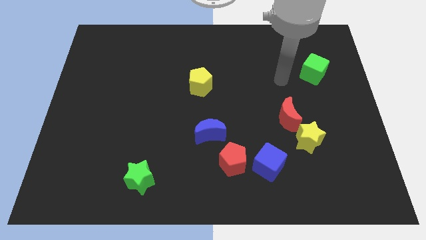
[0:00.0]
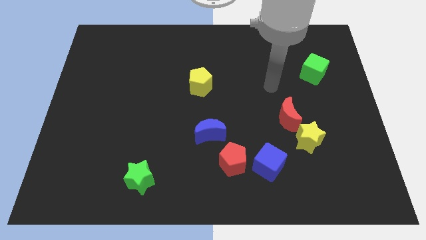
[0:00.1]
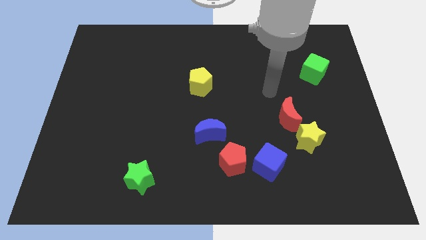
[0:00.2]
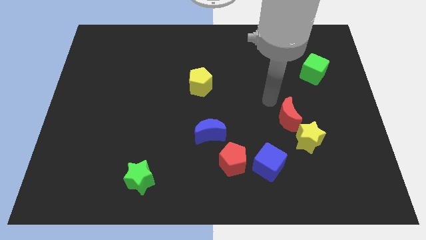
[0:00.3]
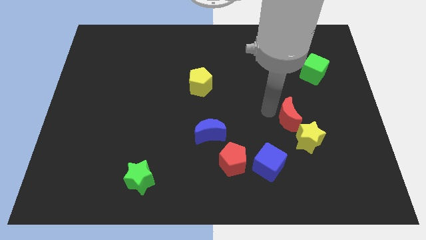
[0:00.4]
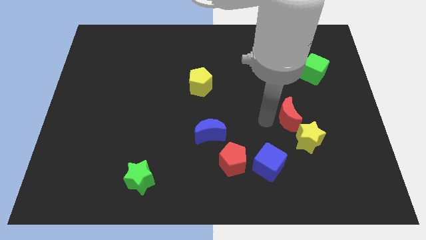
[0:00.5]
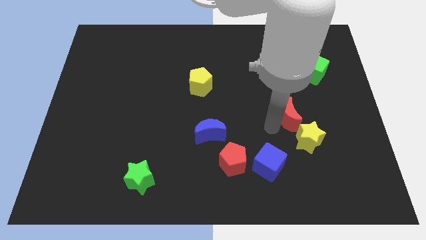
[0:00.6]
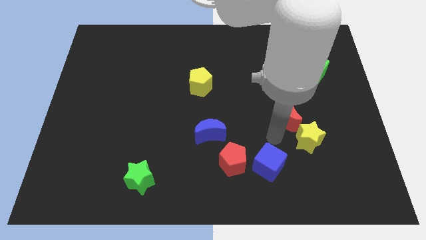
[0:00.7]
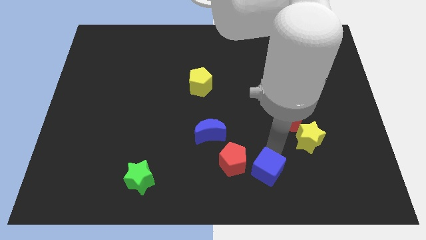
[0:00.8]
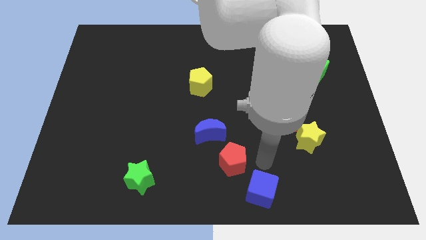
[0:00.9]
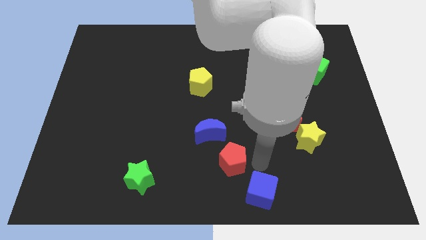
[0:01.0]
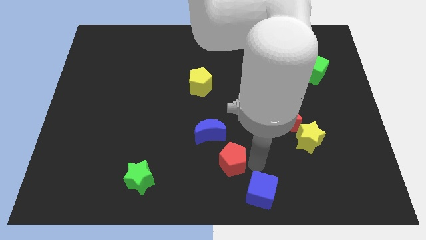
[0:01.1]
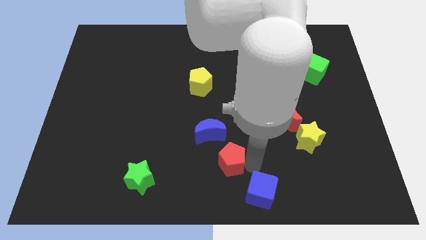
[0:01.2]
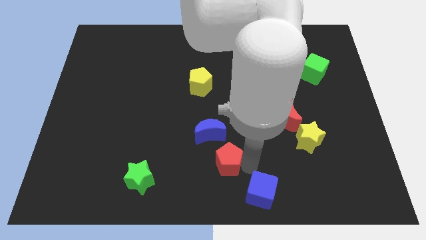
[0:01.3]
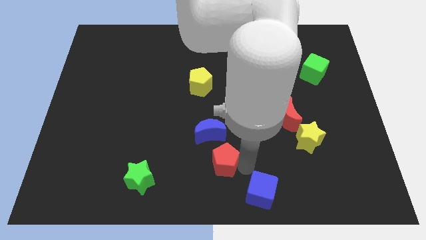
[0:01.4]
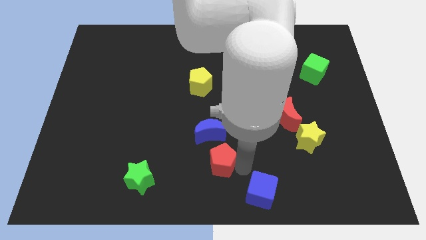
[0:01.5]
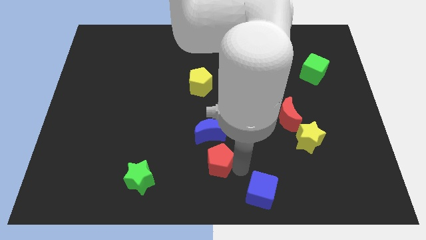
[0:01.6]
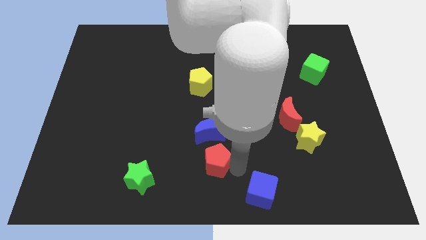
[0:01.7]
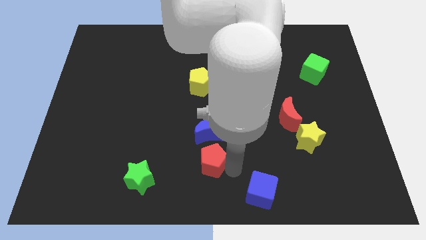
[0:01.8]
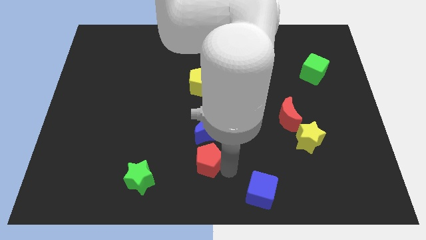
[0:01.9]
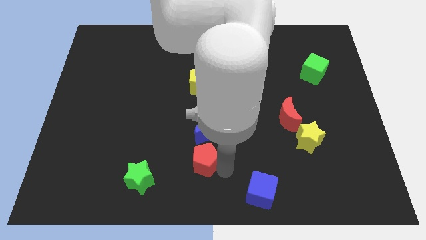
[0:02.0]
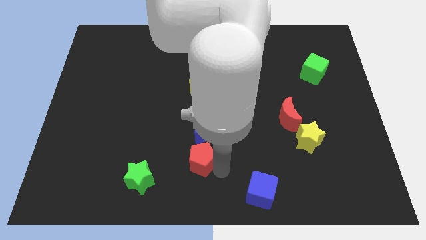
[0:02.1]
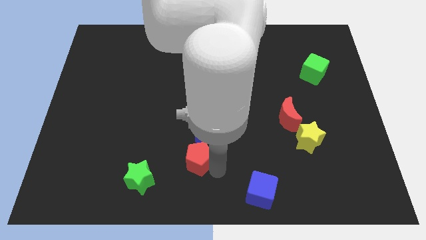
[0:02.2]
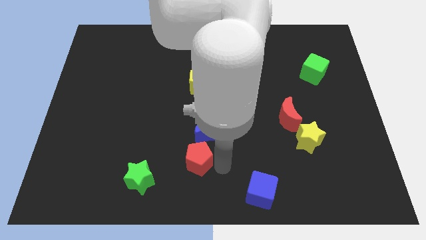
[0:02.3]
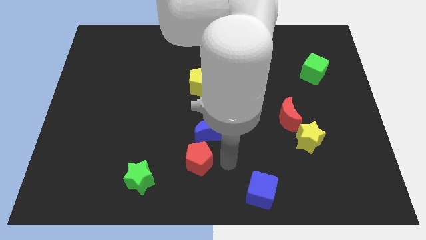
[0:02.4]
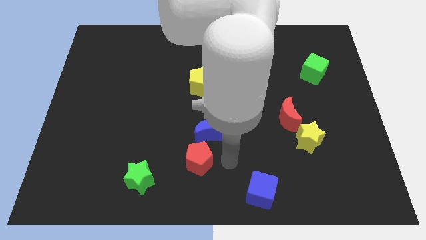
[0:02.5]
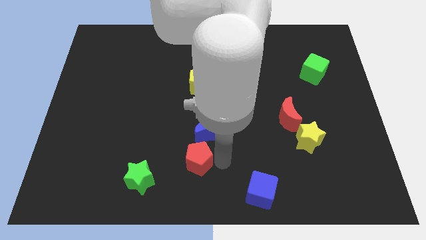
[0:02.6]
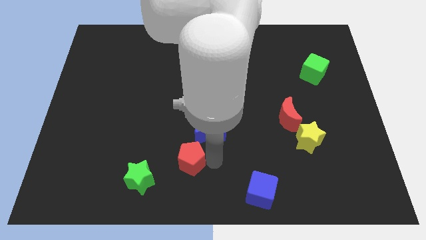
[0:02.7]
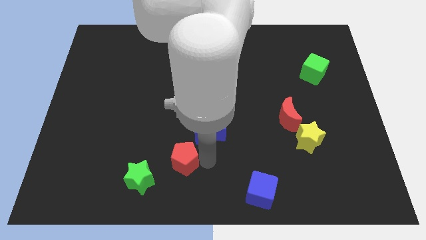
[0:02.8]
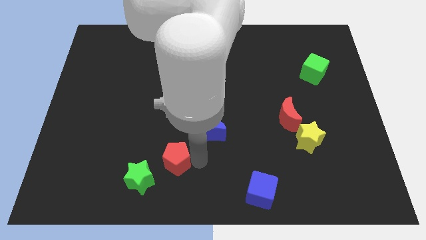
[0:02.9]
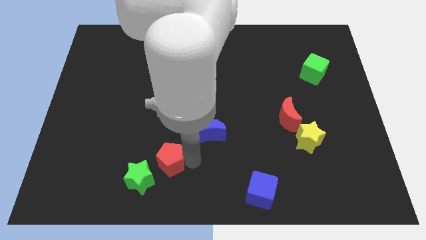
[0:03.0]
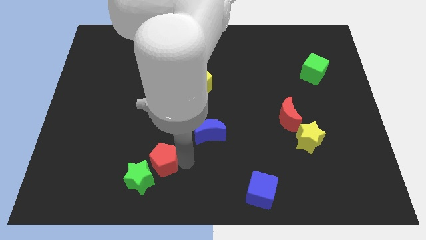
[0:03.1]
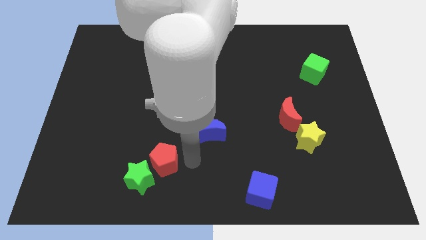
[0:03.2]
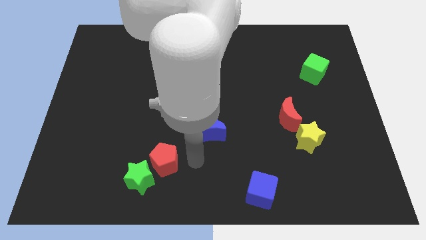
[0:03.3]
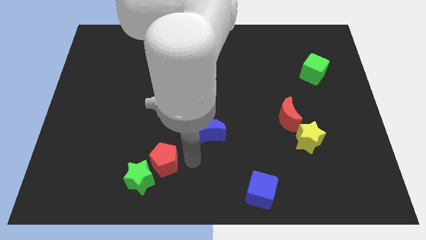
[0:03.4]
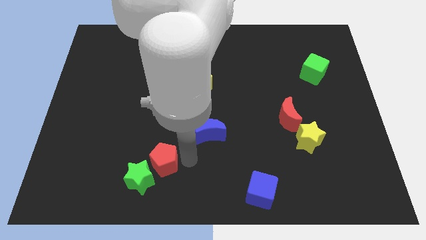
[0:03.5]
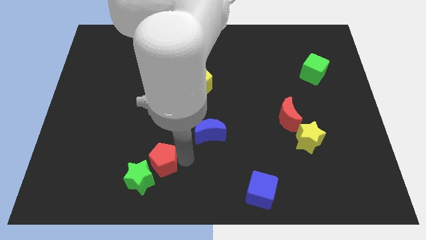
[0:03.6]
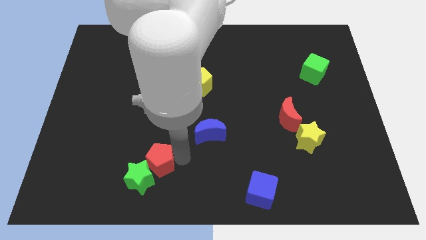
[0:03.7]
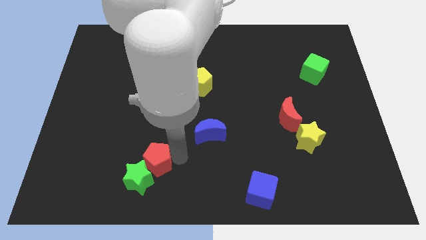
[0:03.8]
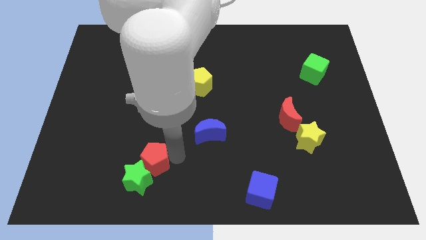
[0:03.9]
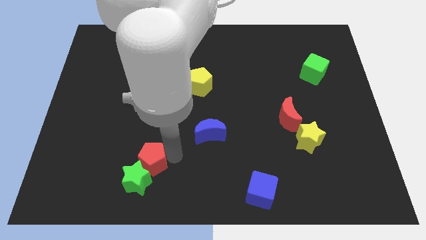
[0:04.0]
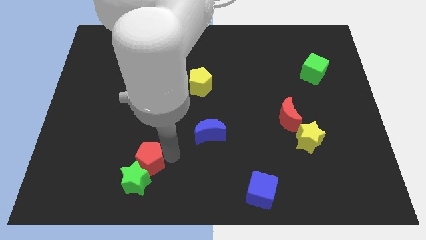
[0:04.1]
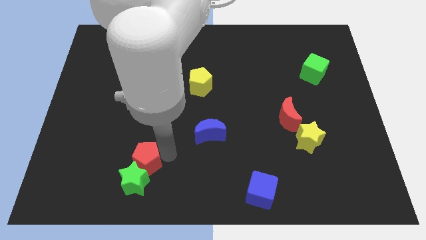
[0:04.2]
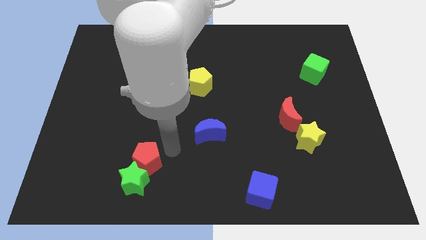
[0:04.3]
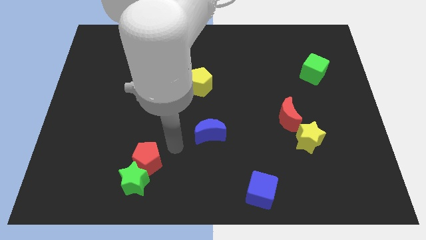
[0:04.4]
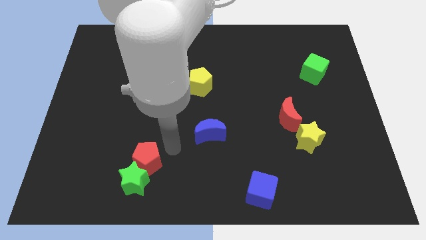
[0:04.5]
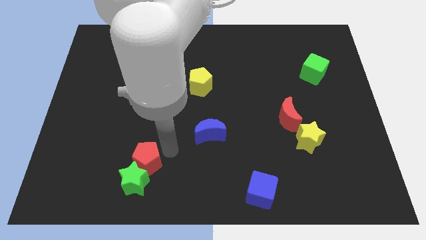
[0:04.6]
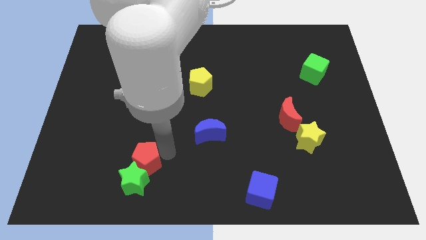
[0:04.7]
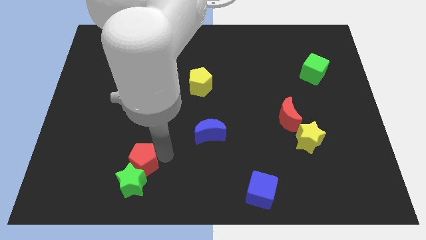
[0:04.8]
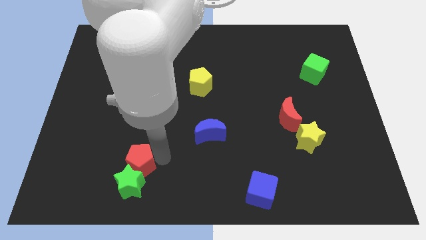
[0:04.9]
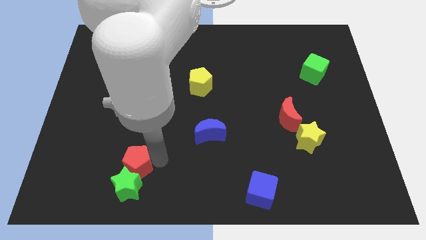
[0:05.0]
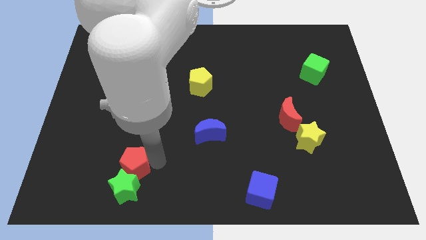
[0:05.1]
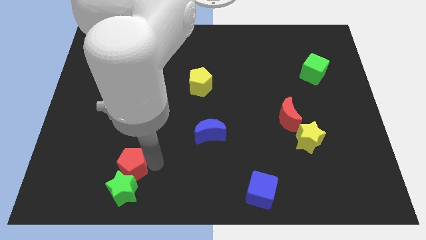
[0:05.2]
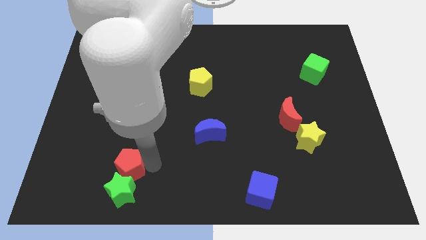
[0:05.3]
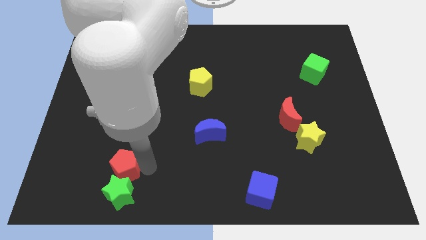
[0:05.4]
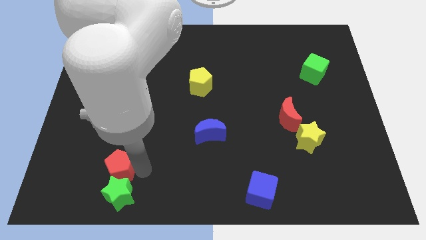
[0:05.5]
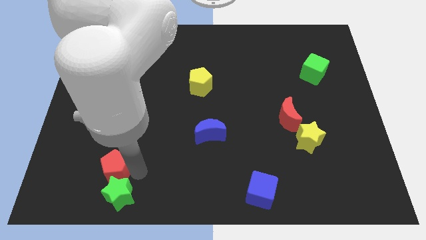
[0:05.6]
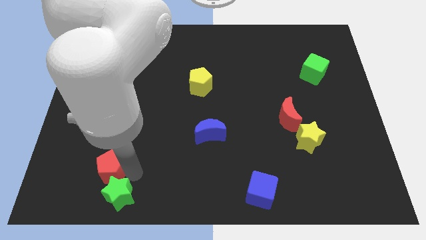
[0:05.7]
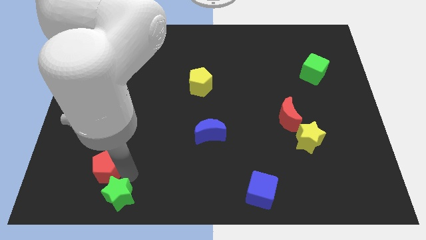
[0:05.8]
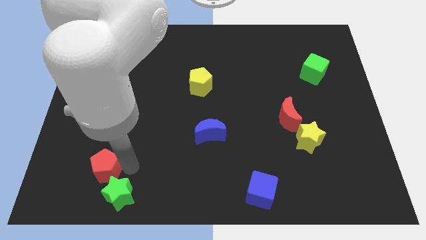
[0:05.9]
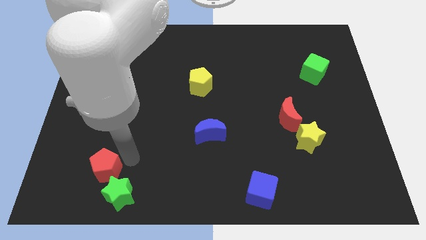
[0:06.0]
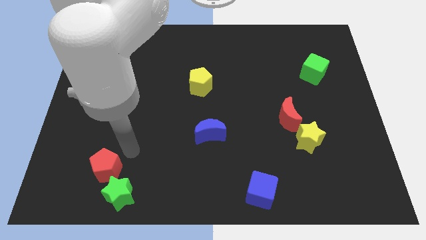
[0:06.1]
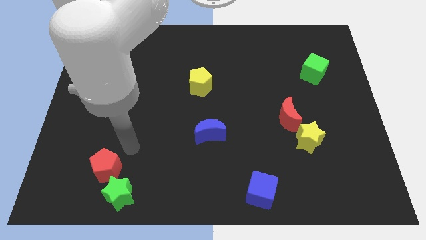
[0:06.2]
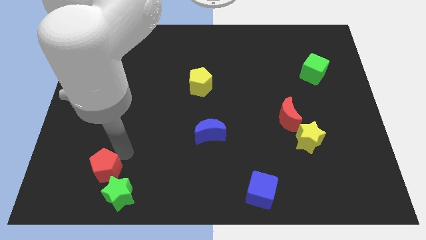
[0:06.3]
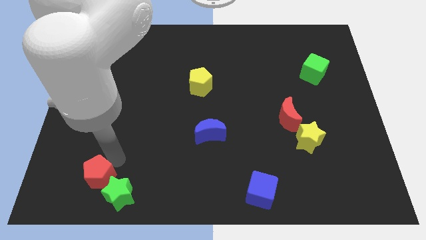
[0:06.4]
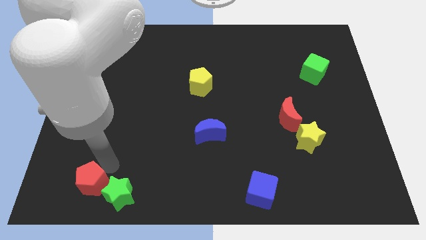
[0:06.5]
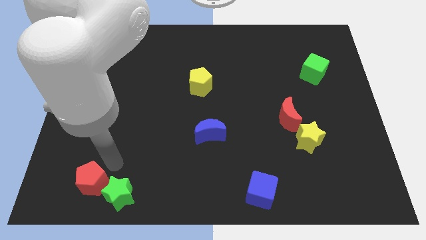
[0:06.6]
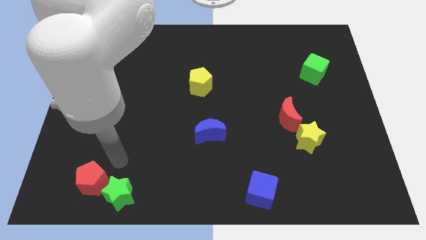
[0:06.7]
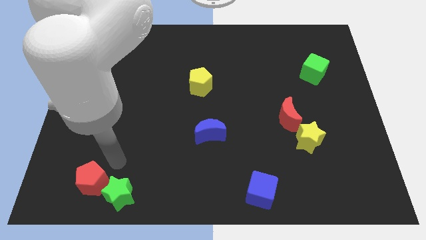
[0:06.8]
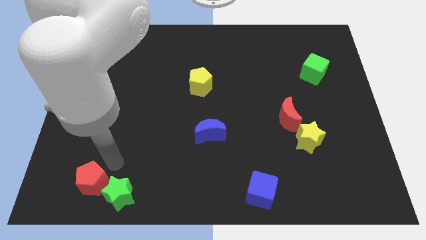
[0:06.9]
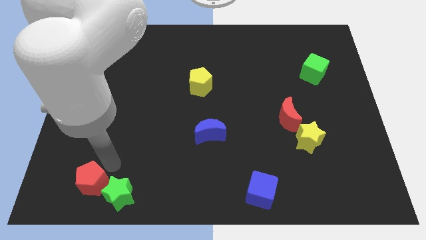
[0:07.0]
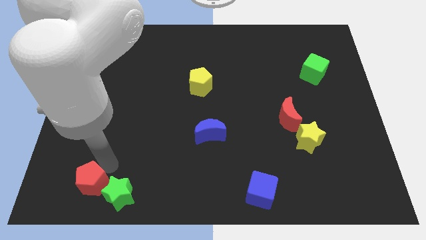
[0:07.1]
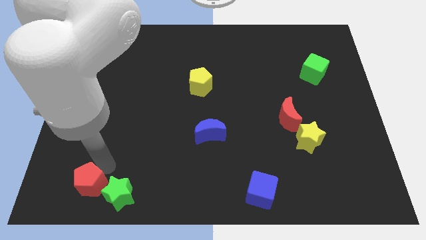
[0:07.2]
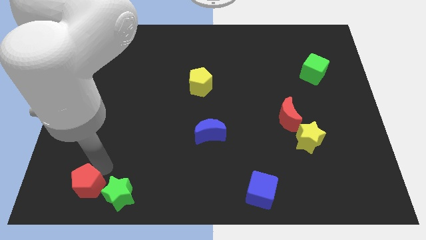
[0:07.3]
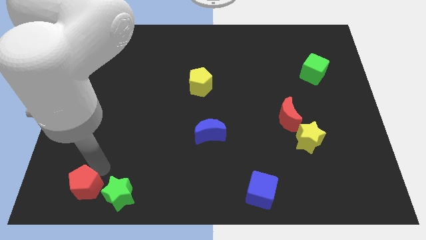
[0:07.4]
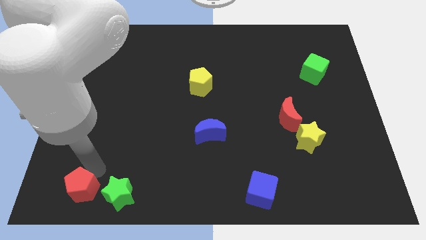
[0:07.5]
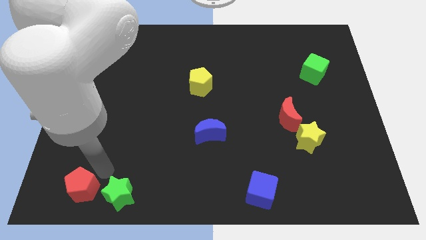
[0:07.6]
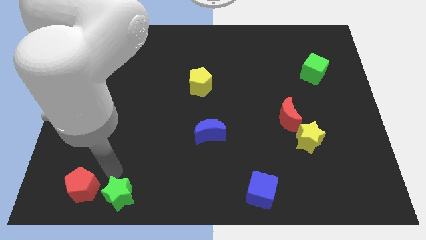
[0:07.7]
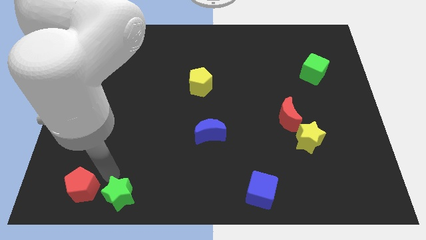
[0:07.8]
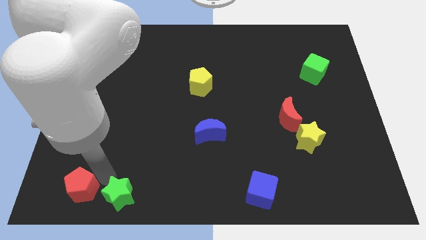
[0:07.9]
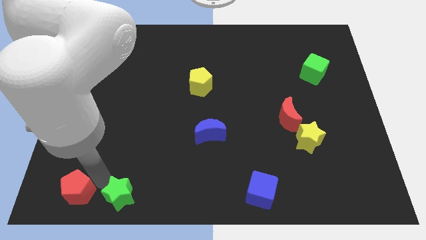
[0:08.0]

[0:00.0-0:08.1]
slide the red pentagon to the bottom left of the board
